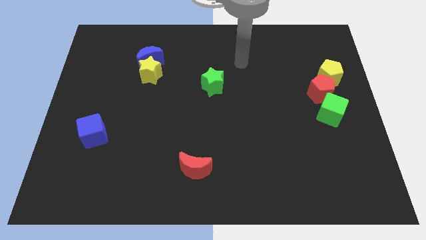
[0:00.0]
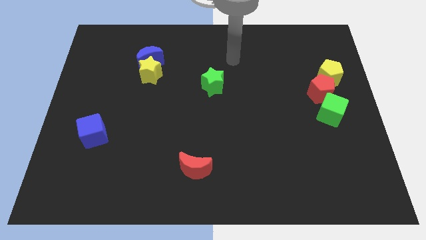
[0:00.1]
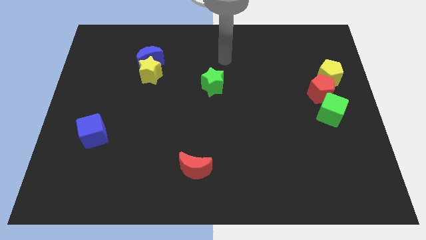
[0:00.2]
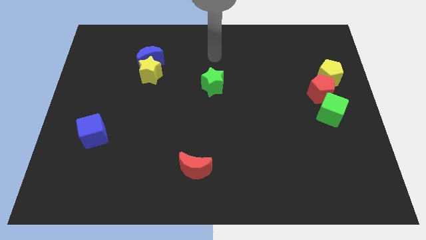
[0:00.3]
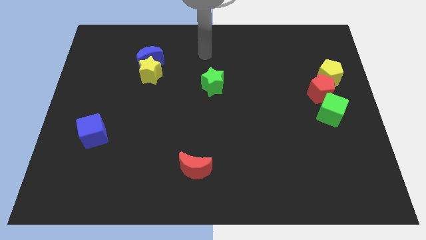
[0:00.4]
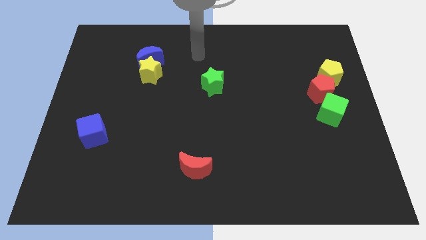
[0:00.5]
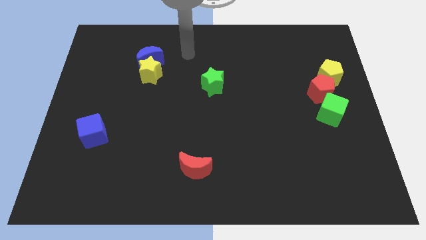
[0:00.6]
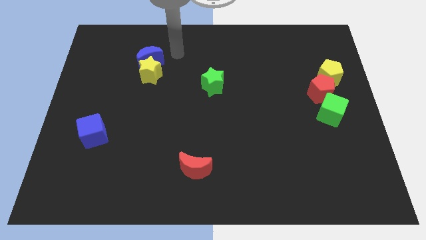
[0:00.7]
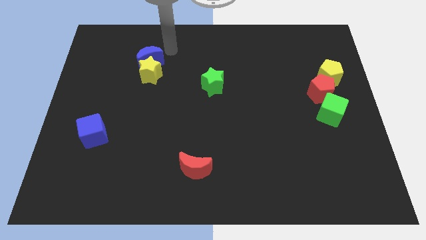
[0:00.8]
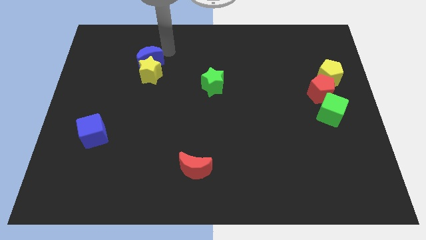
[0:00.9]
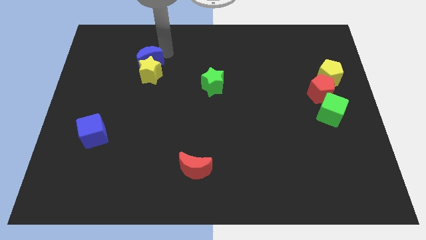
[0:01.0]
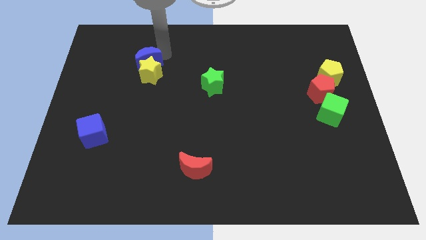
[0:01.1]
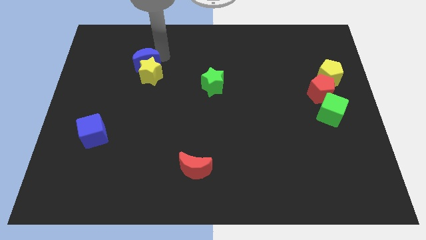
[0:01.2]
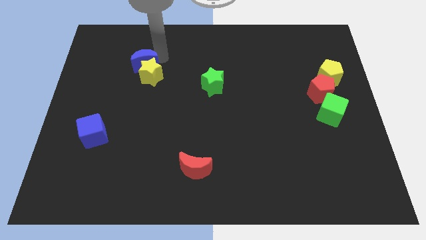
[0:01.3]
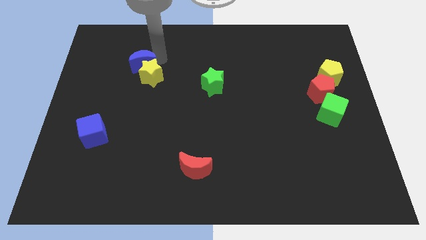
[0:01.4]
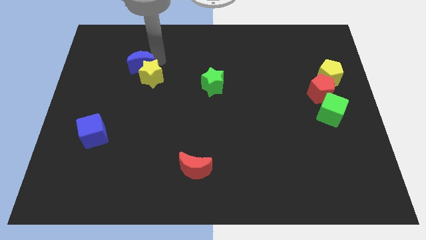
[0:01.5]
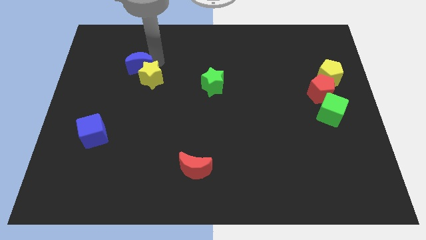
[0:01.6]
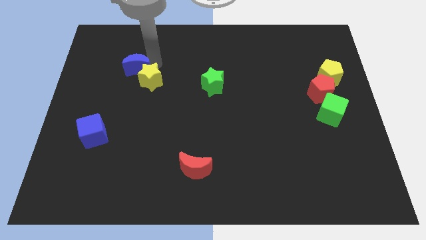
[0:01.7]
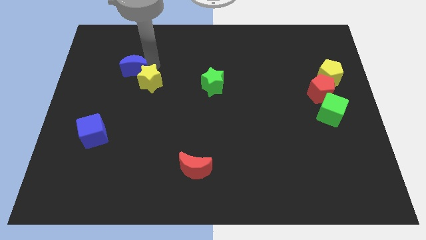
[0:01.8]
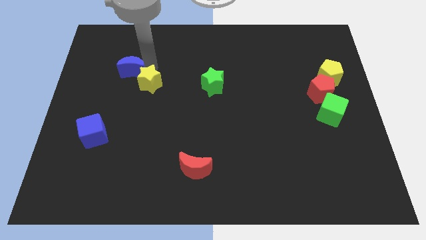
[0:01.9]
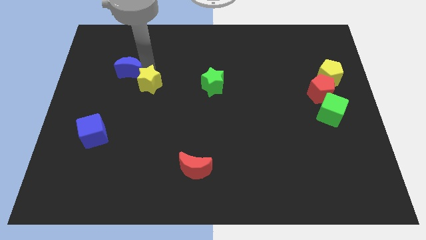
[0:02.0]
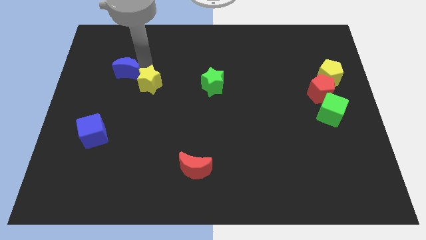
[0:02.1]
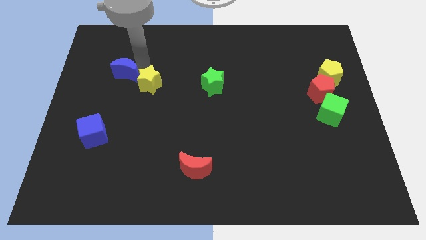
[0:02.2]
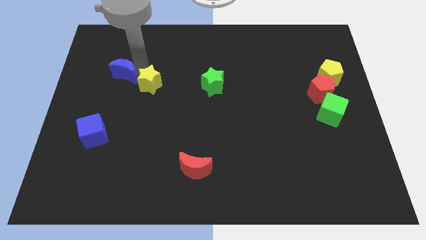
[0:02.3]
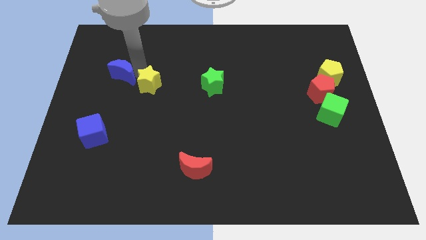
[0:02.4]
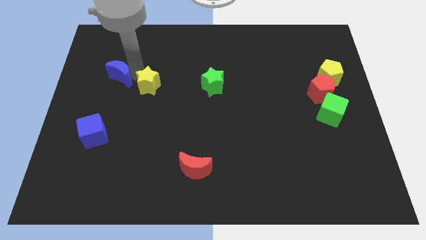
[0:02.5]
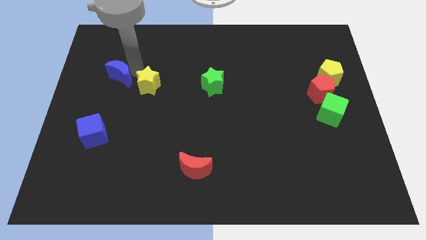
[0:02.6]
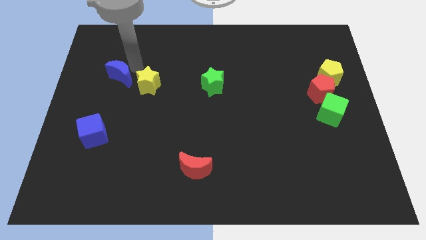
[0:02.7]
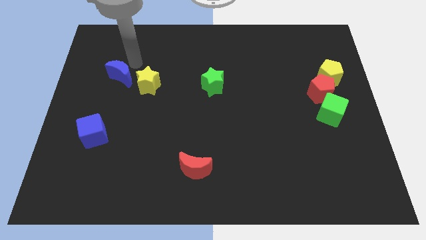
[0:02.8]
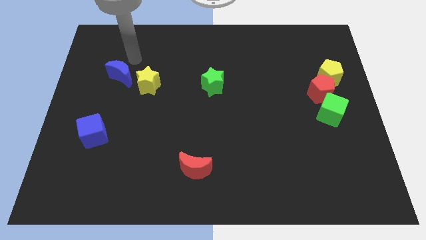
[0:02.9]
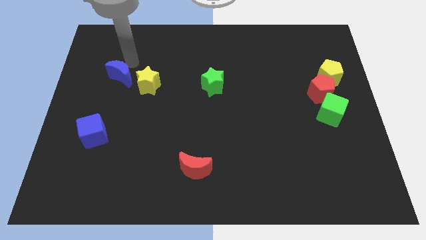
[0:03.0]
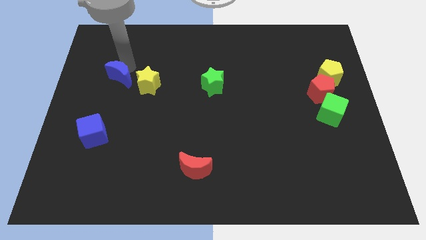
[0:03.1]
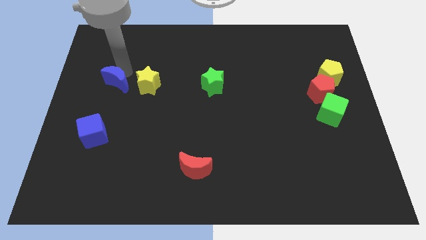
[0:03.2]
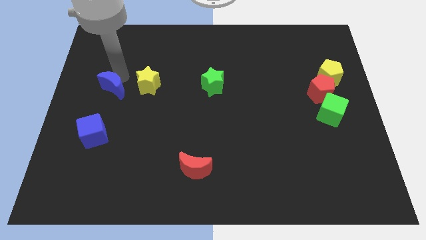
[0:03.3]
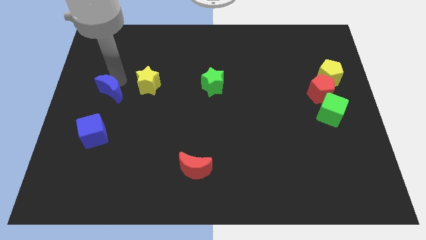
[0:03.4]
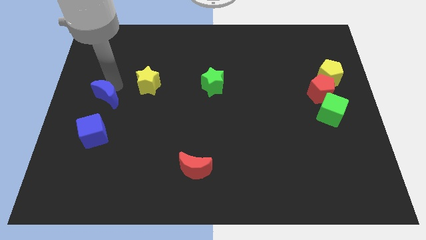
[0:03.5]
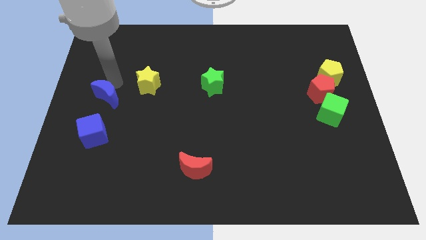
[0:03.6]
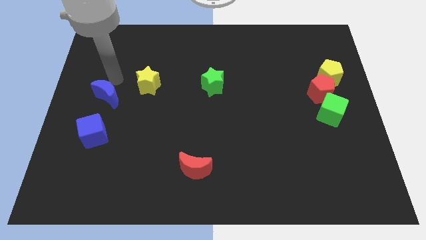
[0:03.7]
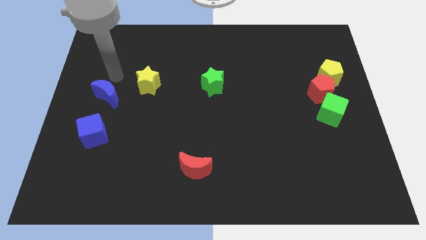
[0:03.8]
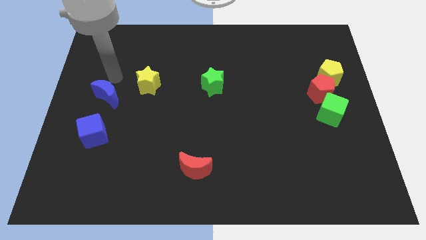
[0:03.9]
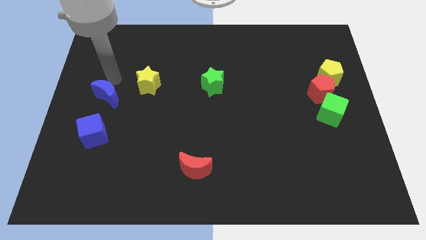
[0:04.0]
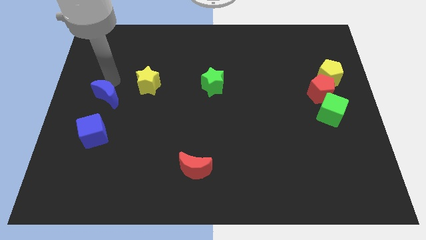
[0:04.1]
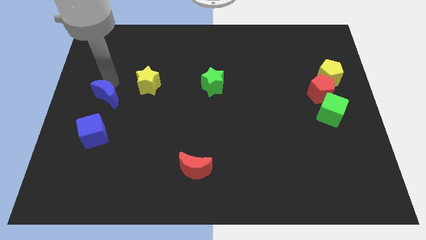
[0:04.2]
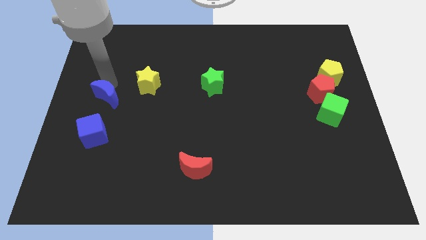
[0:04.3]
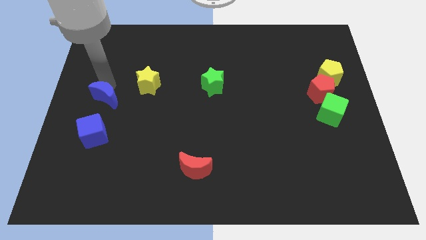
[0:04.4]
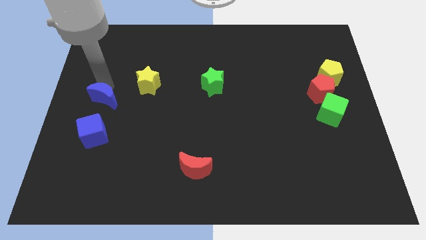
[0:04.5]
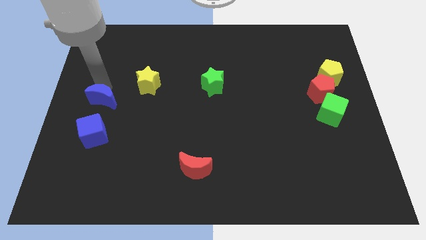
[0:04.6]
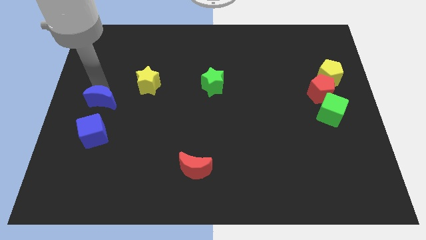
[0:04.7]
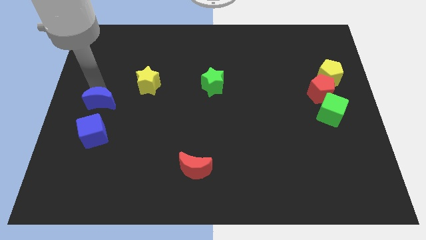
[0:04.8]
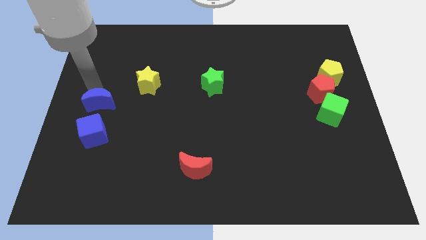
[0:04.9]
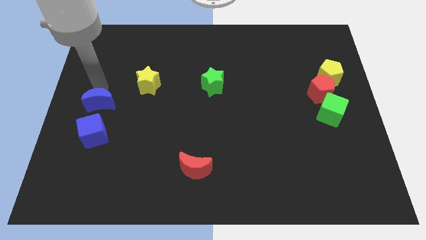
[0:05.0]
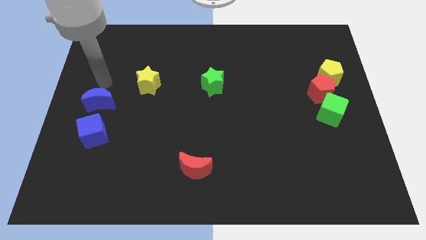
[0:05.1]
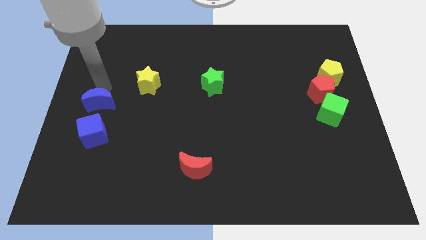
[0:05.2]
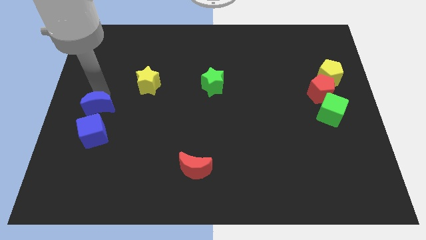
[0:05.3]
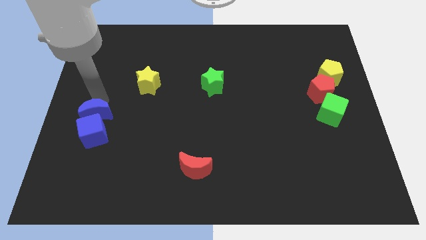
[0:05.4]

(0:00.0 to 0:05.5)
slide the blue moon close to the blue cube

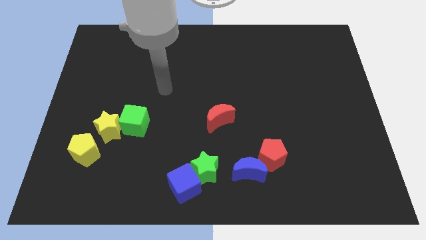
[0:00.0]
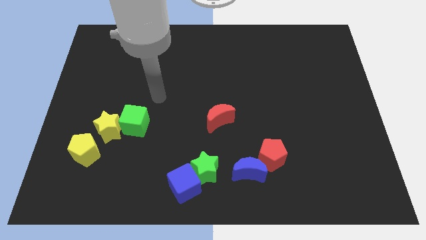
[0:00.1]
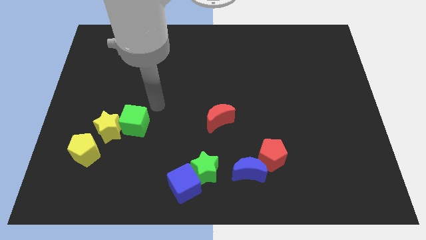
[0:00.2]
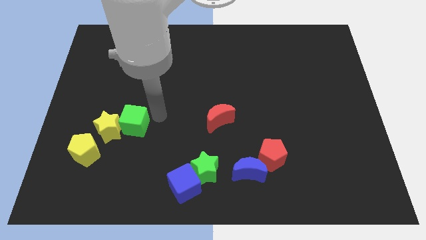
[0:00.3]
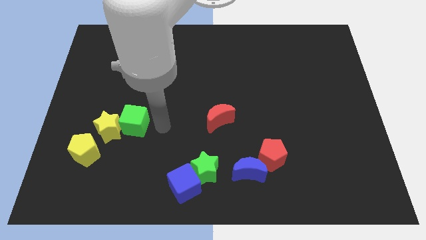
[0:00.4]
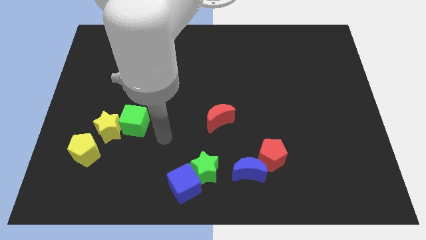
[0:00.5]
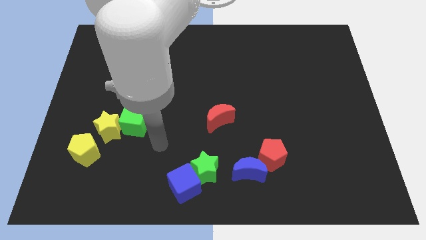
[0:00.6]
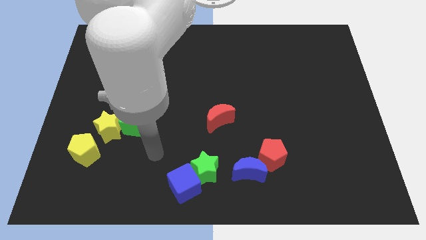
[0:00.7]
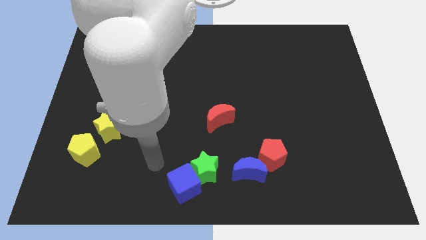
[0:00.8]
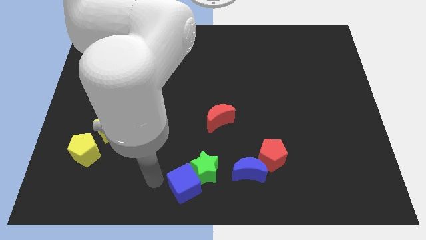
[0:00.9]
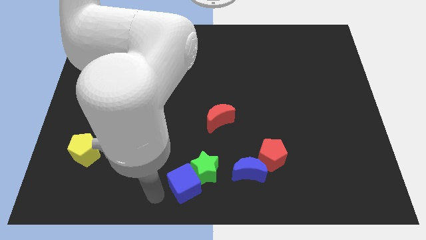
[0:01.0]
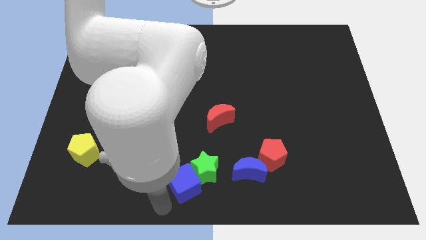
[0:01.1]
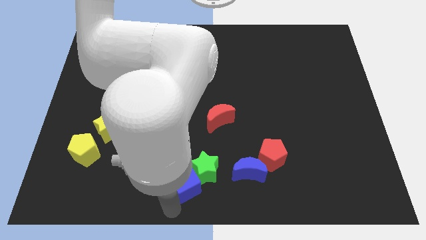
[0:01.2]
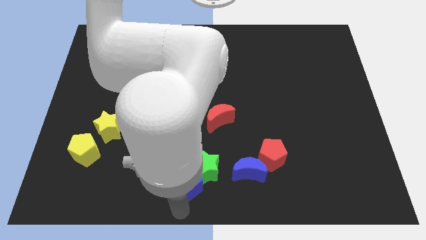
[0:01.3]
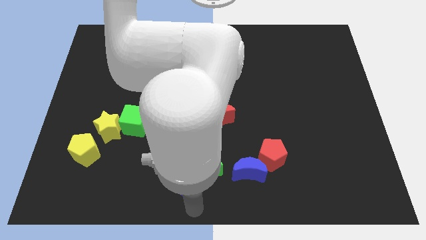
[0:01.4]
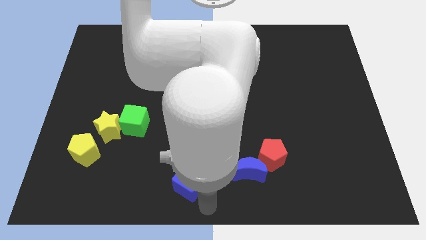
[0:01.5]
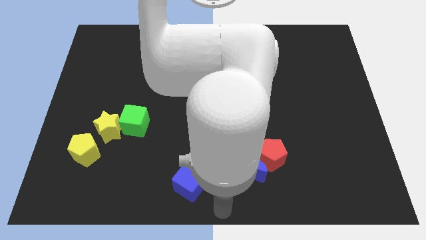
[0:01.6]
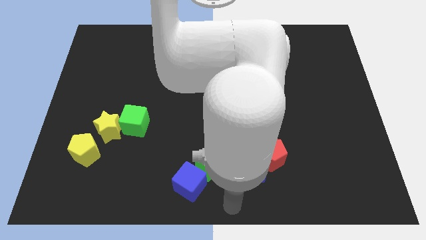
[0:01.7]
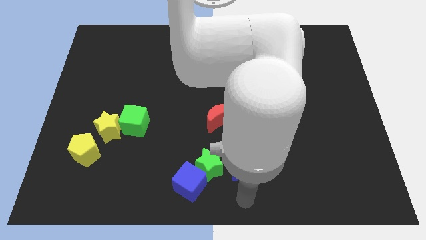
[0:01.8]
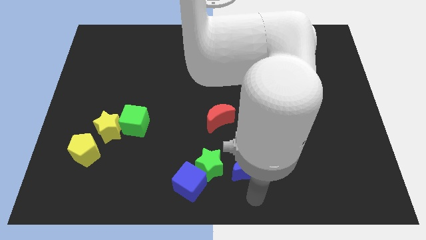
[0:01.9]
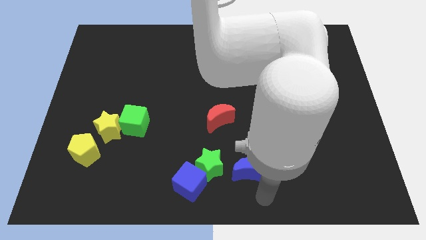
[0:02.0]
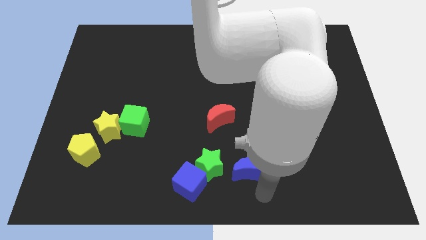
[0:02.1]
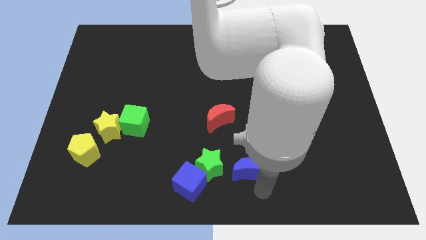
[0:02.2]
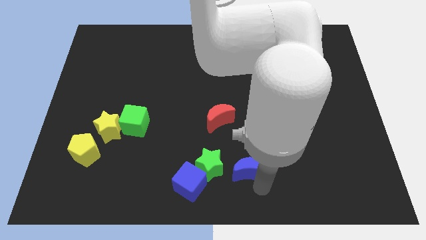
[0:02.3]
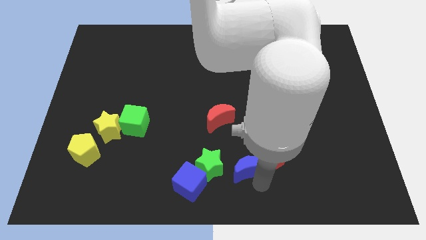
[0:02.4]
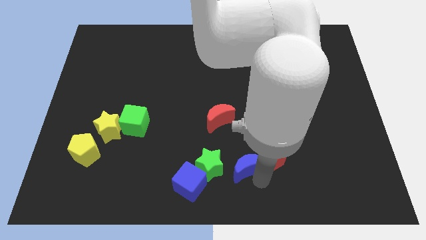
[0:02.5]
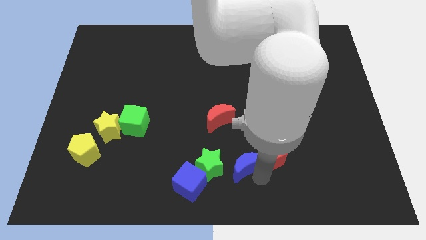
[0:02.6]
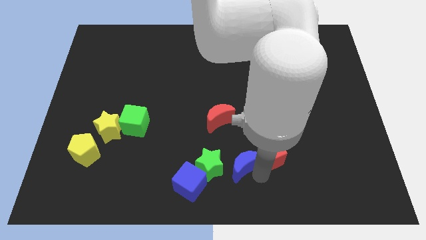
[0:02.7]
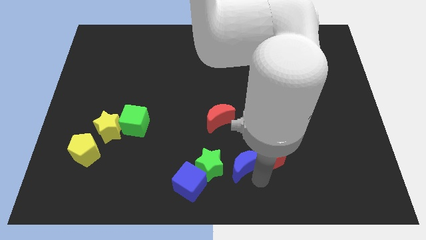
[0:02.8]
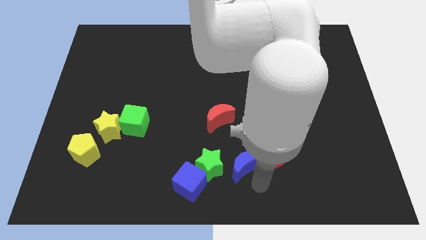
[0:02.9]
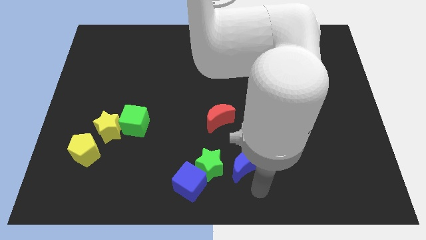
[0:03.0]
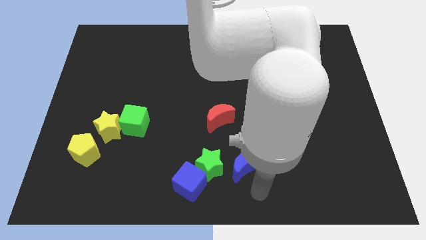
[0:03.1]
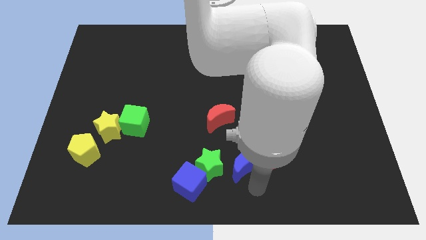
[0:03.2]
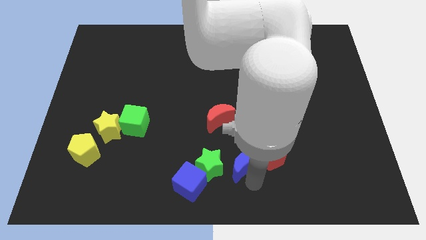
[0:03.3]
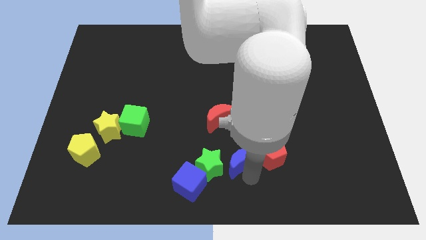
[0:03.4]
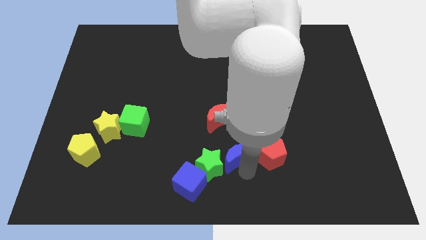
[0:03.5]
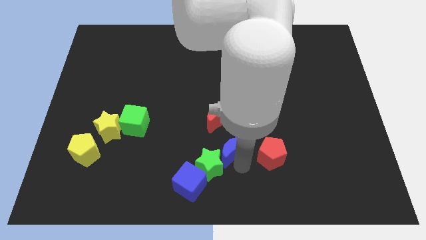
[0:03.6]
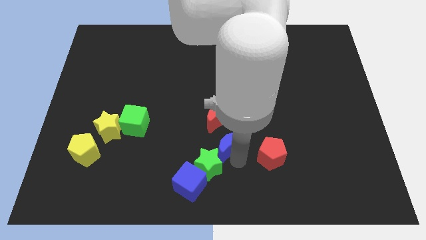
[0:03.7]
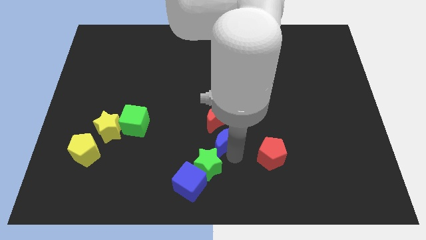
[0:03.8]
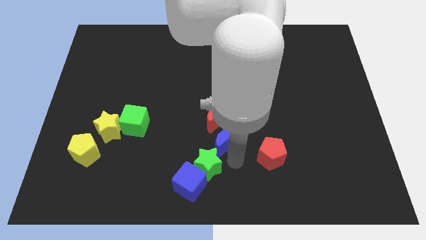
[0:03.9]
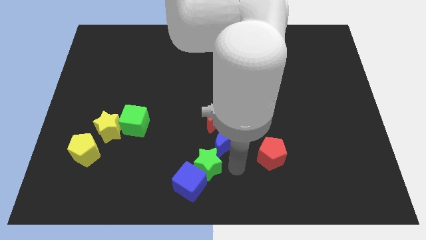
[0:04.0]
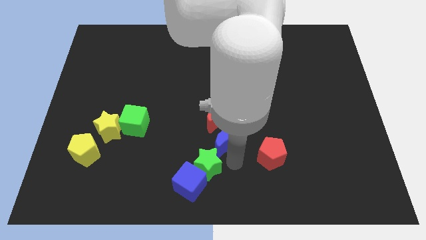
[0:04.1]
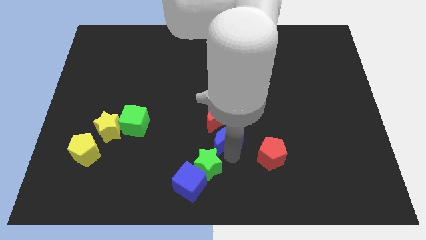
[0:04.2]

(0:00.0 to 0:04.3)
push the blue moon to the red moon
